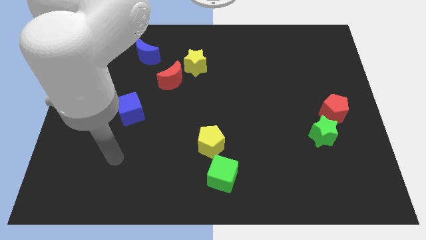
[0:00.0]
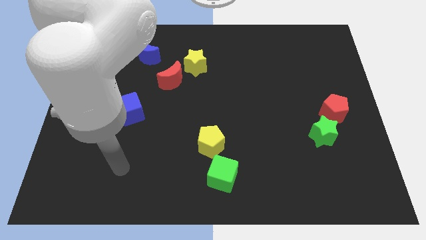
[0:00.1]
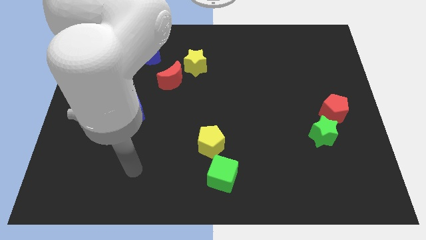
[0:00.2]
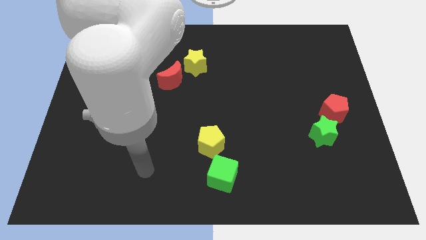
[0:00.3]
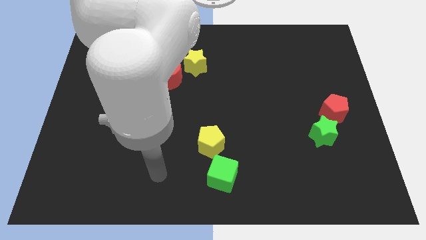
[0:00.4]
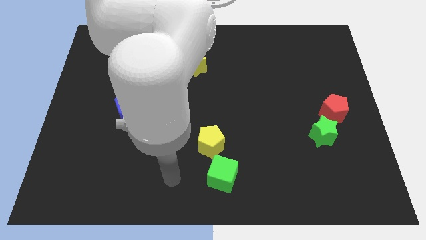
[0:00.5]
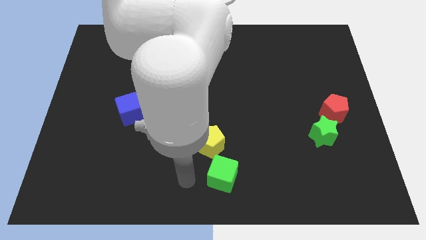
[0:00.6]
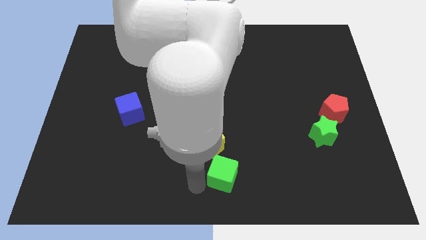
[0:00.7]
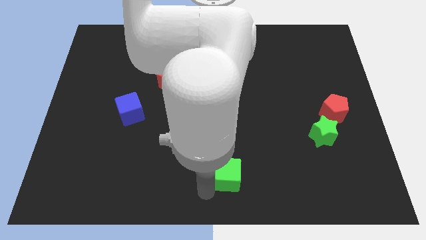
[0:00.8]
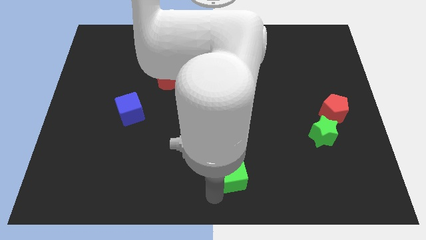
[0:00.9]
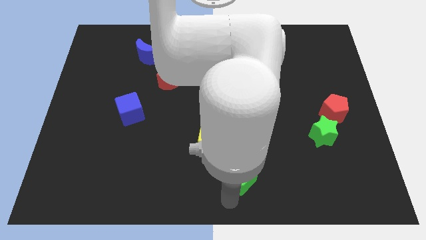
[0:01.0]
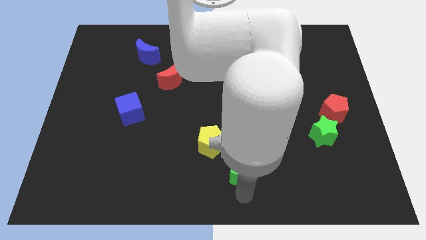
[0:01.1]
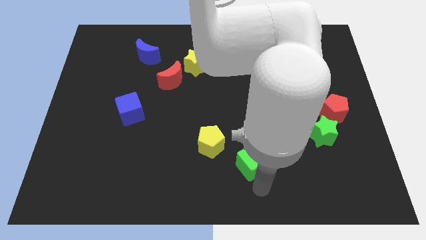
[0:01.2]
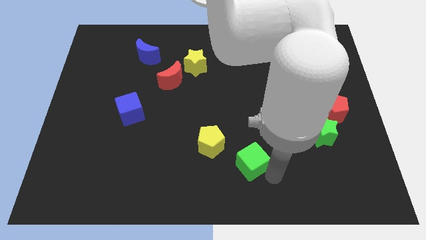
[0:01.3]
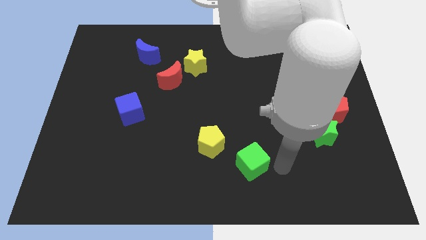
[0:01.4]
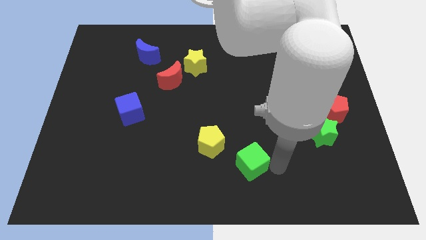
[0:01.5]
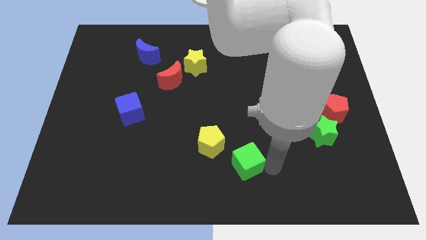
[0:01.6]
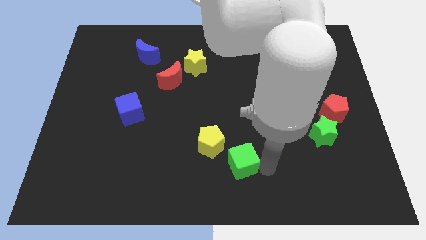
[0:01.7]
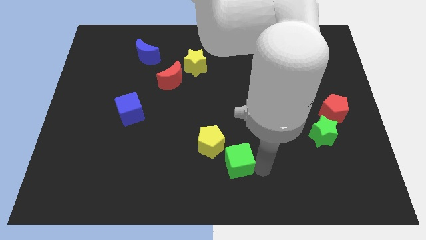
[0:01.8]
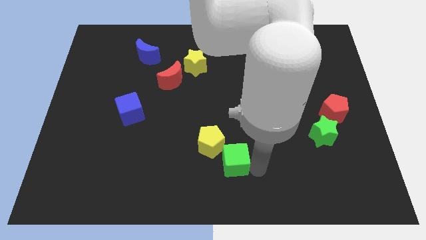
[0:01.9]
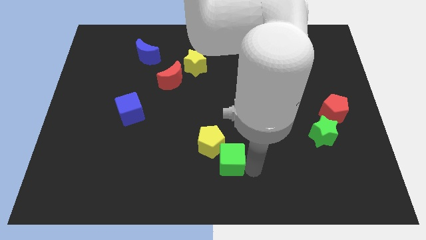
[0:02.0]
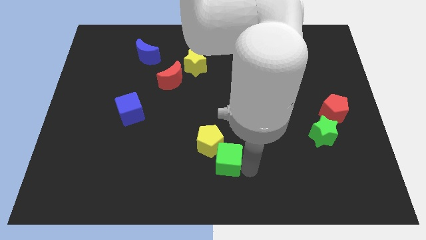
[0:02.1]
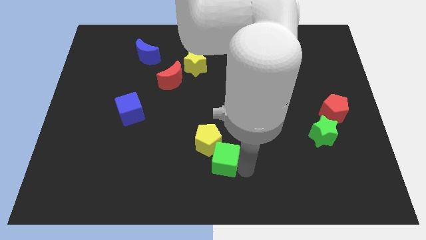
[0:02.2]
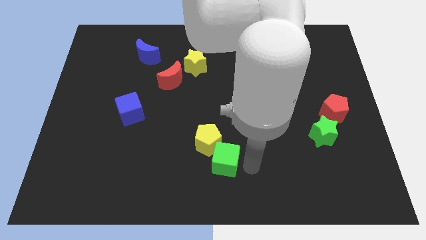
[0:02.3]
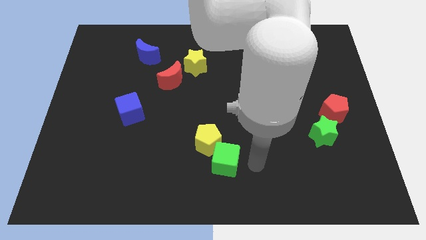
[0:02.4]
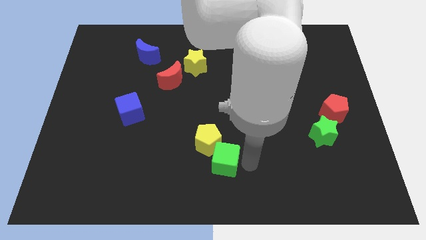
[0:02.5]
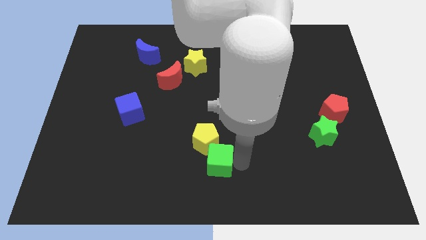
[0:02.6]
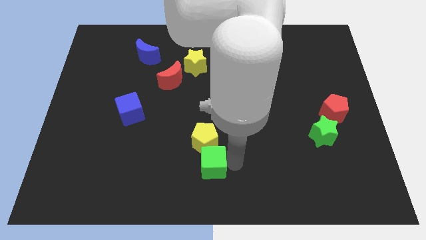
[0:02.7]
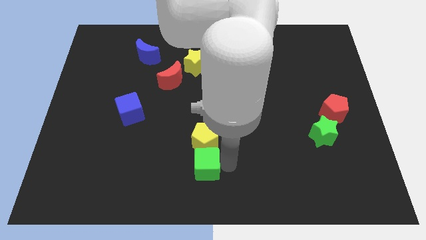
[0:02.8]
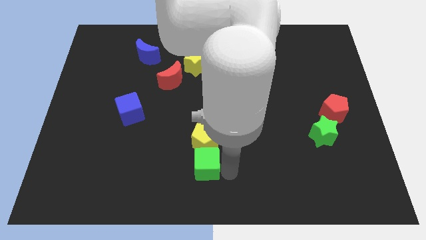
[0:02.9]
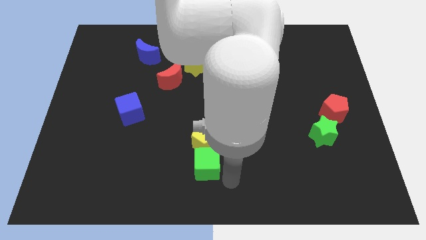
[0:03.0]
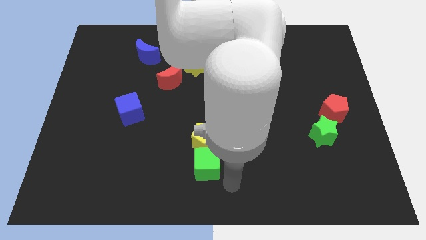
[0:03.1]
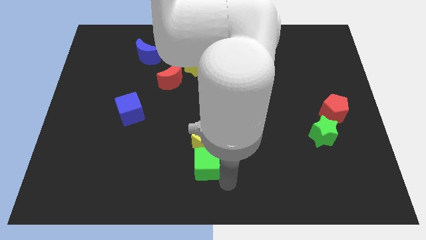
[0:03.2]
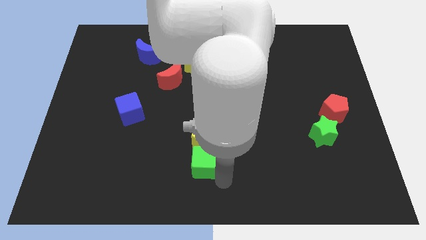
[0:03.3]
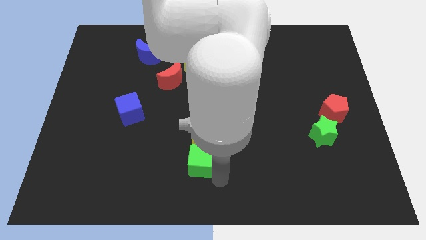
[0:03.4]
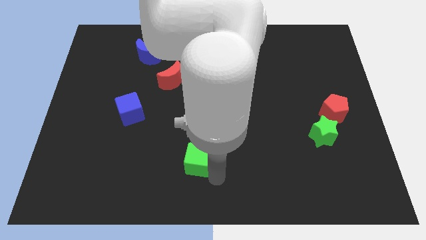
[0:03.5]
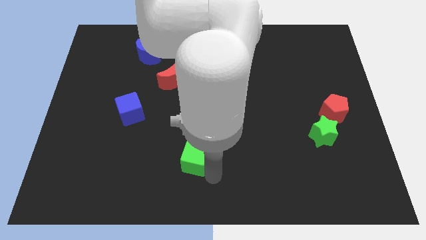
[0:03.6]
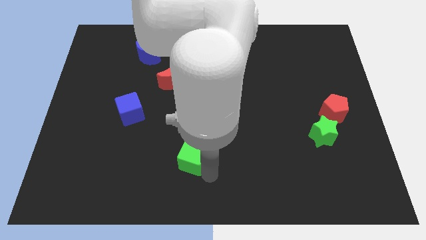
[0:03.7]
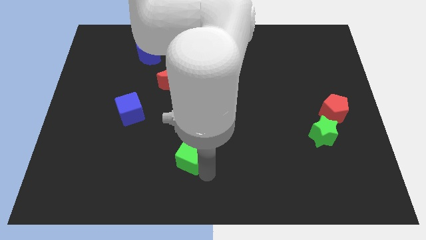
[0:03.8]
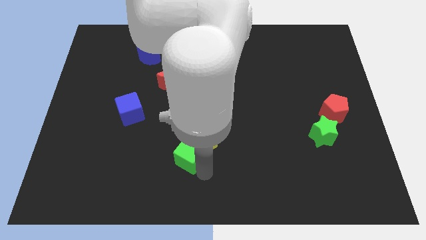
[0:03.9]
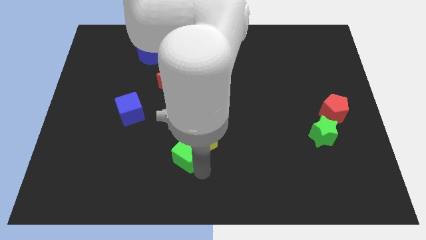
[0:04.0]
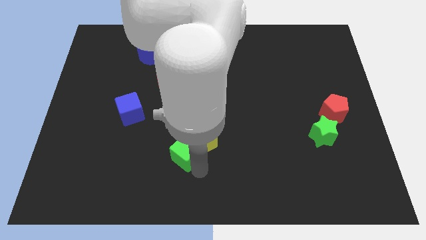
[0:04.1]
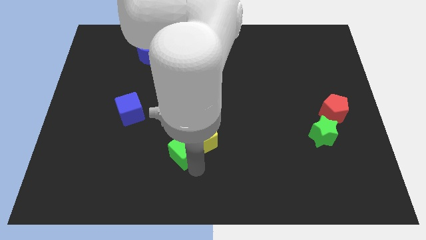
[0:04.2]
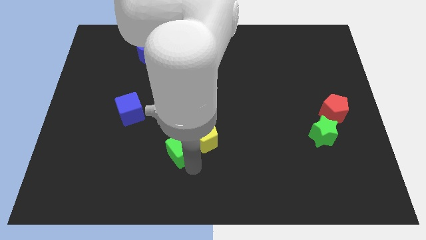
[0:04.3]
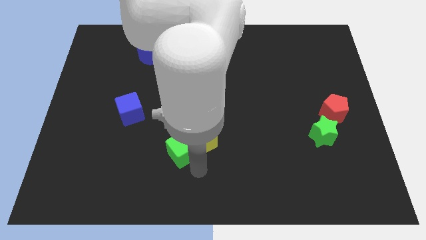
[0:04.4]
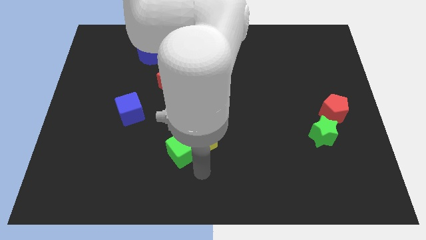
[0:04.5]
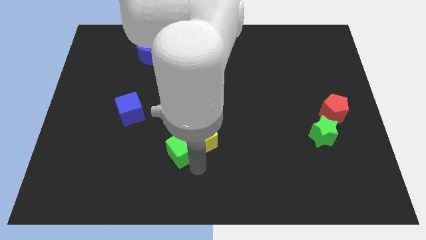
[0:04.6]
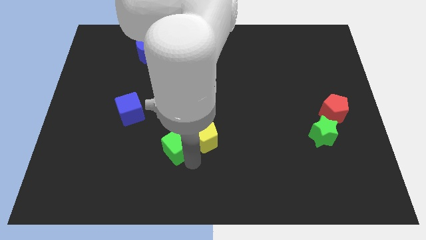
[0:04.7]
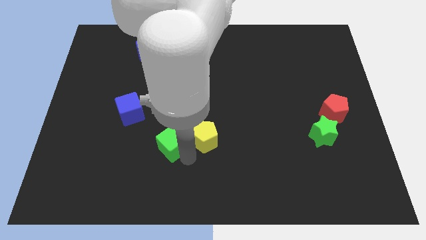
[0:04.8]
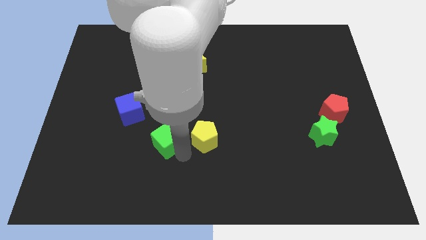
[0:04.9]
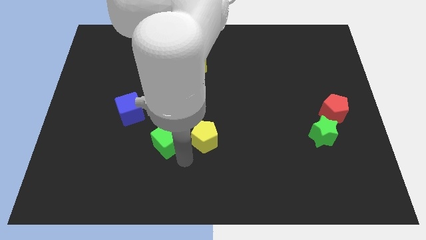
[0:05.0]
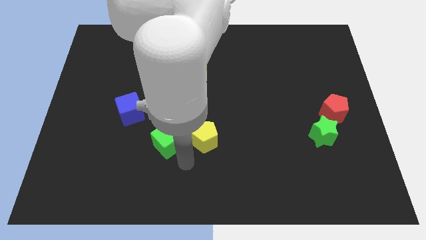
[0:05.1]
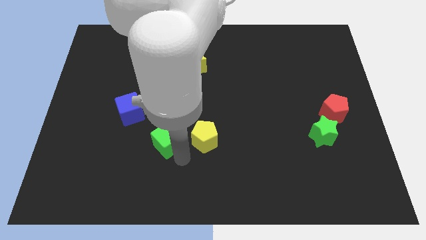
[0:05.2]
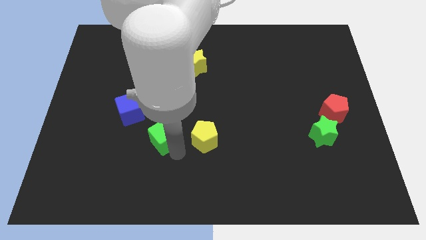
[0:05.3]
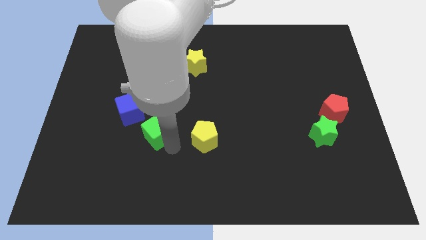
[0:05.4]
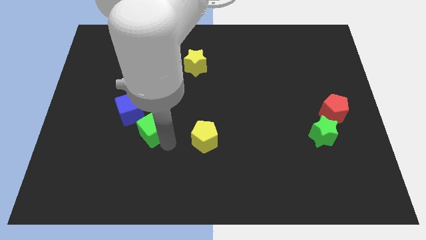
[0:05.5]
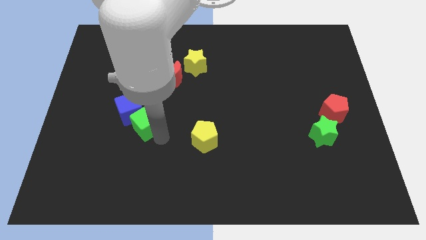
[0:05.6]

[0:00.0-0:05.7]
push the green cube to the blue cube

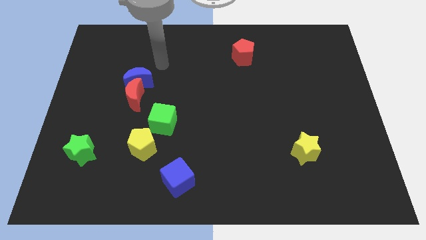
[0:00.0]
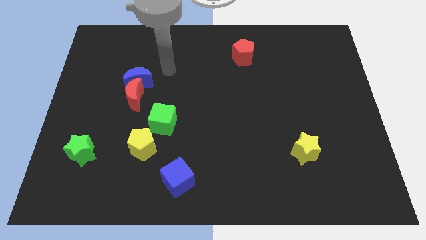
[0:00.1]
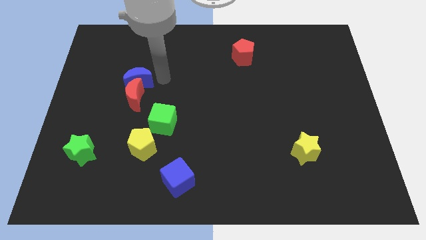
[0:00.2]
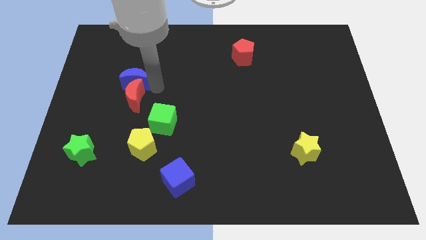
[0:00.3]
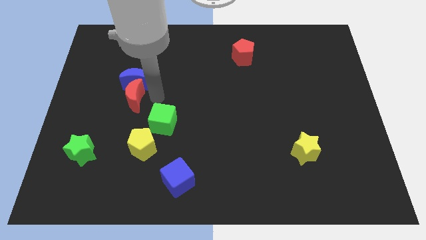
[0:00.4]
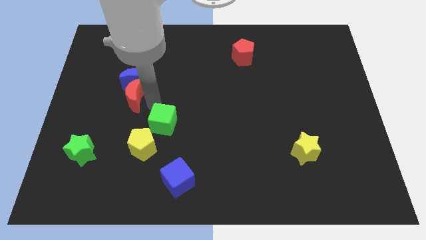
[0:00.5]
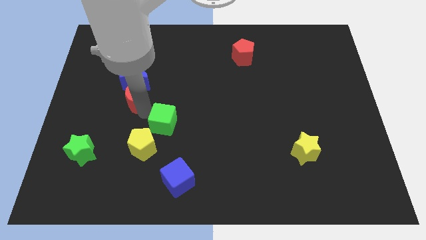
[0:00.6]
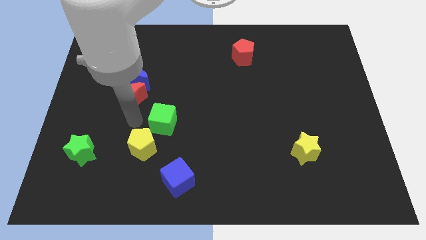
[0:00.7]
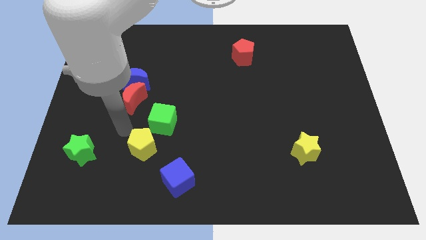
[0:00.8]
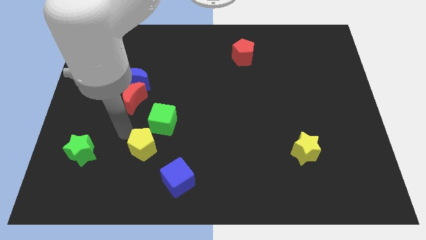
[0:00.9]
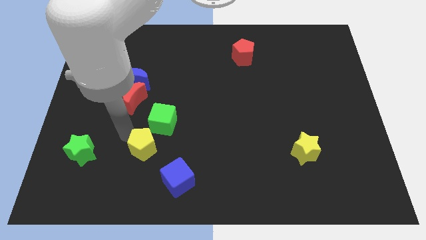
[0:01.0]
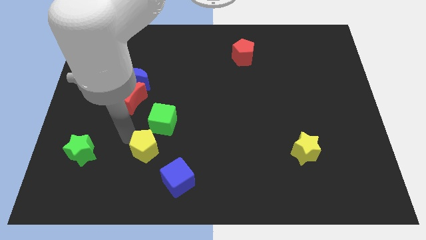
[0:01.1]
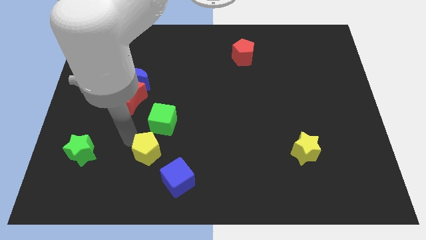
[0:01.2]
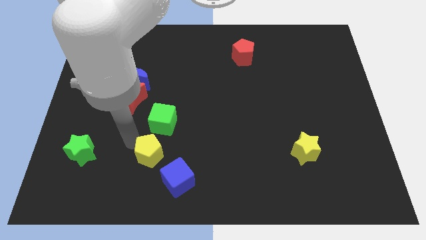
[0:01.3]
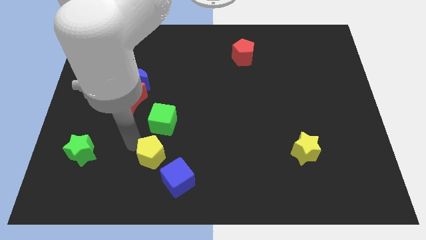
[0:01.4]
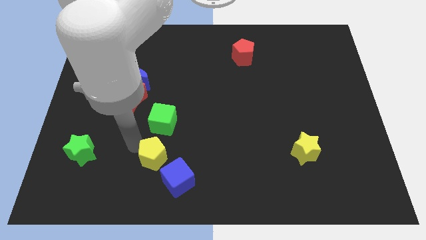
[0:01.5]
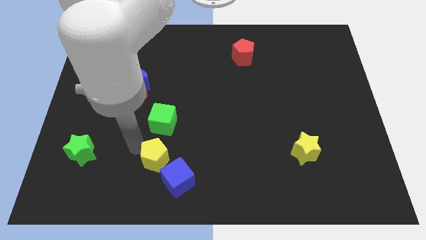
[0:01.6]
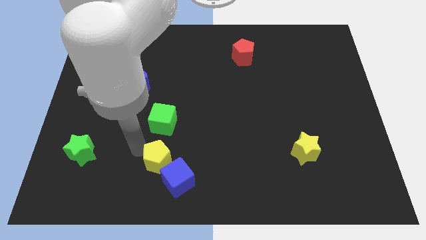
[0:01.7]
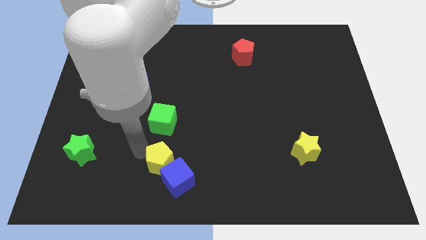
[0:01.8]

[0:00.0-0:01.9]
slide the yellow pentagon close to the blue cube

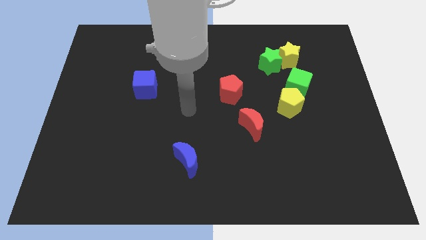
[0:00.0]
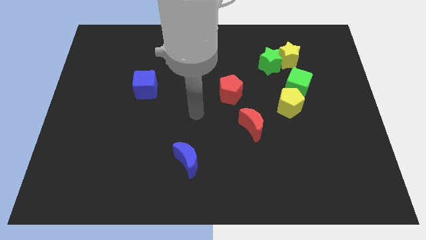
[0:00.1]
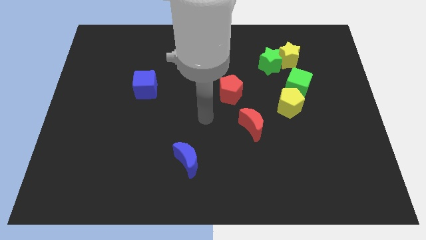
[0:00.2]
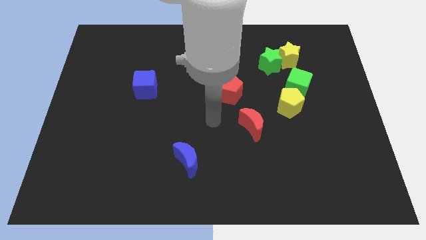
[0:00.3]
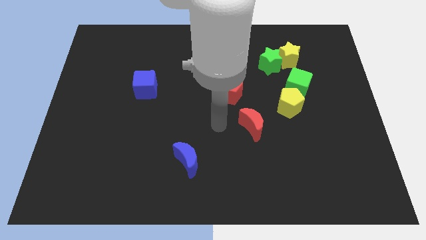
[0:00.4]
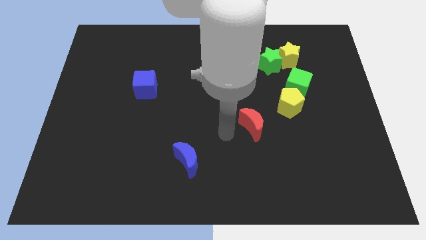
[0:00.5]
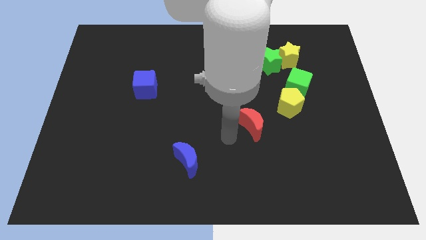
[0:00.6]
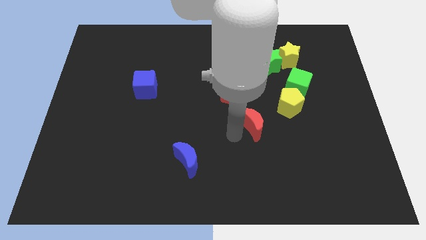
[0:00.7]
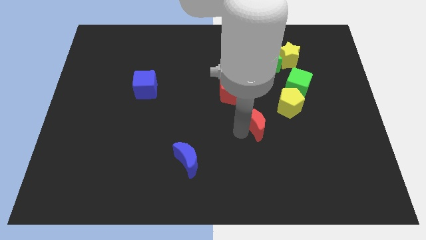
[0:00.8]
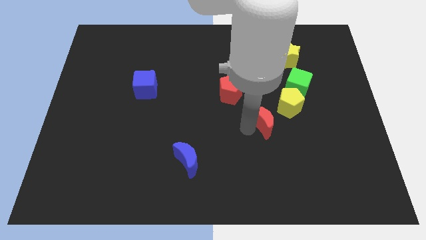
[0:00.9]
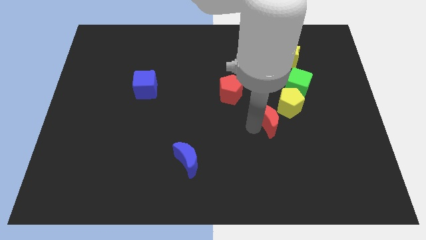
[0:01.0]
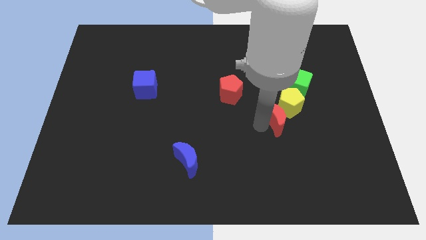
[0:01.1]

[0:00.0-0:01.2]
push the red moon close to the yellow pentagon
